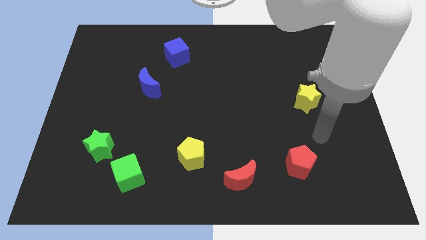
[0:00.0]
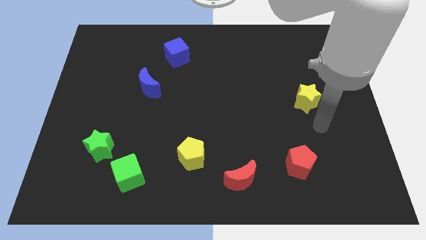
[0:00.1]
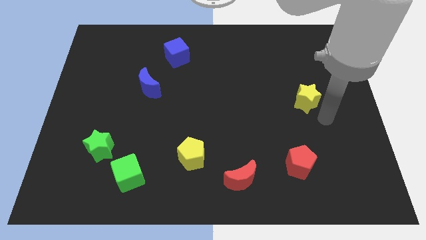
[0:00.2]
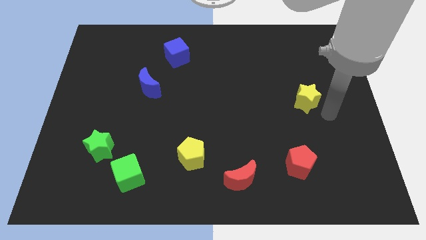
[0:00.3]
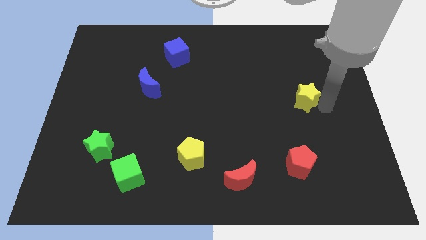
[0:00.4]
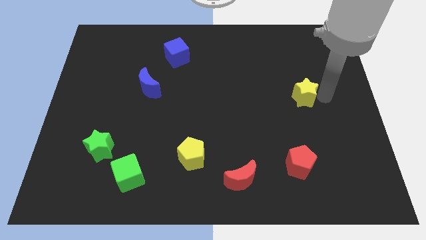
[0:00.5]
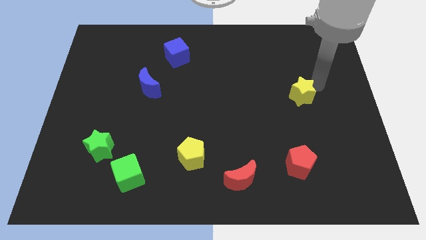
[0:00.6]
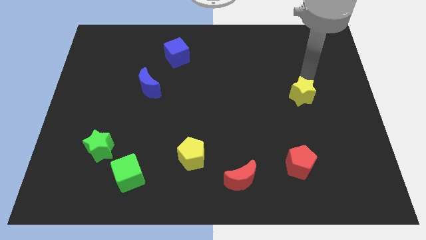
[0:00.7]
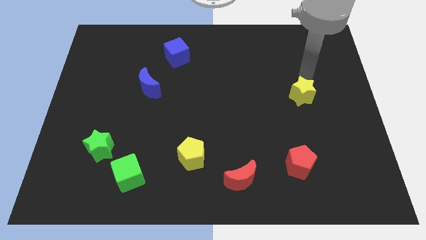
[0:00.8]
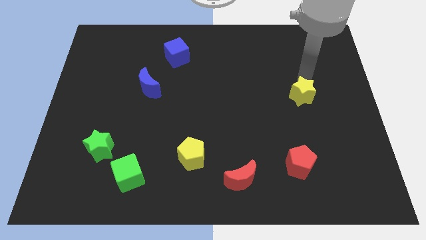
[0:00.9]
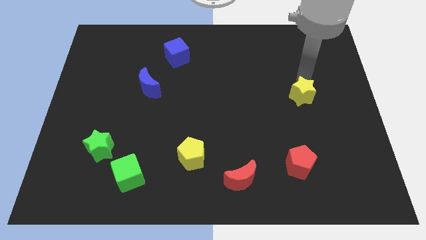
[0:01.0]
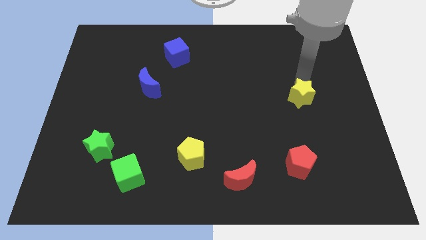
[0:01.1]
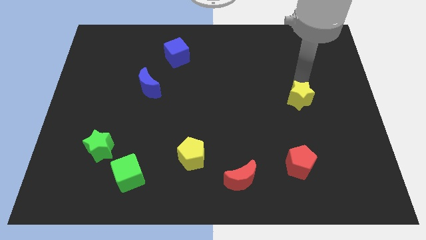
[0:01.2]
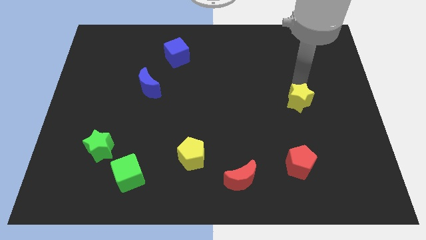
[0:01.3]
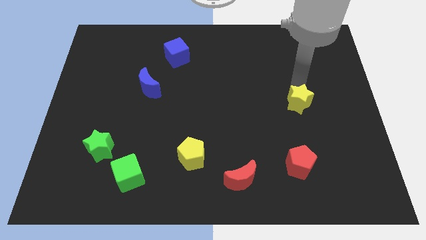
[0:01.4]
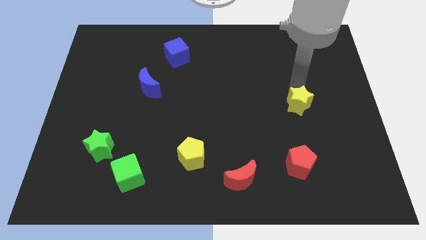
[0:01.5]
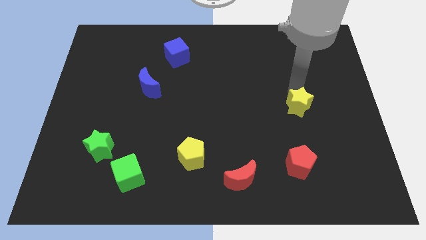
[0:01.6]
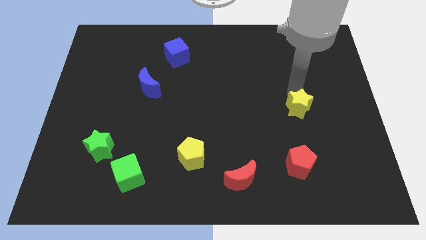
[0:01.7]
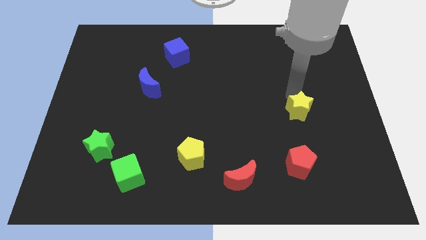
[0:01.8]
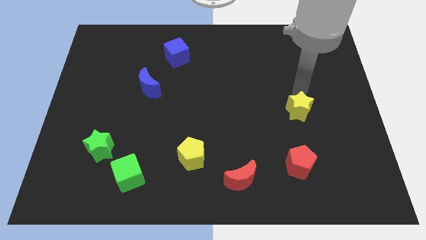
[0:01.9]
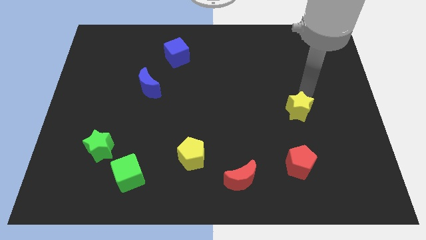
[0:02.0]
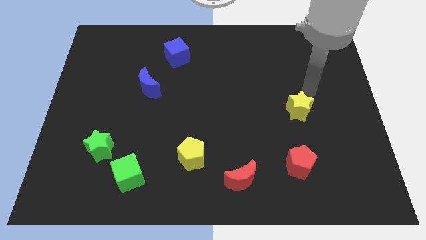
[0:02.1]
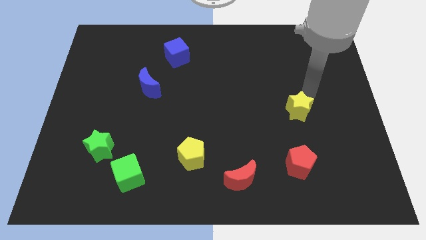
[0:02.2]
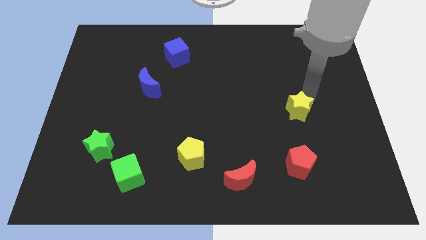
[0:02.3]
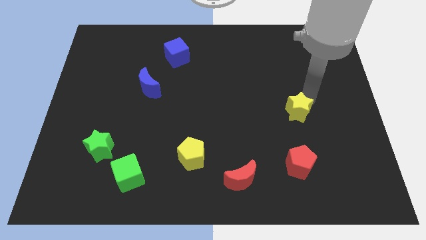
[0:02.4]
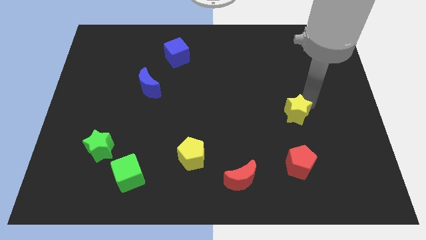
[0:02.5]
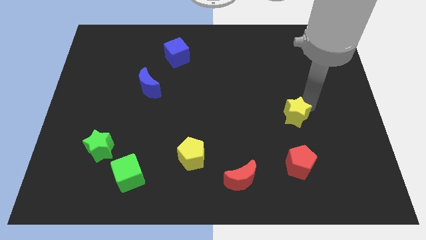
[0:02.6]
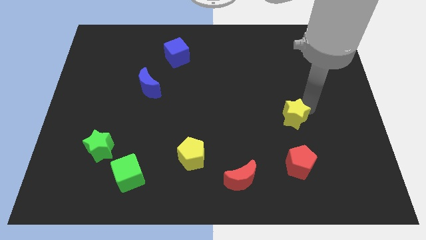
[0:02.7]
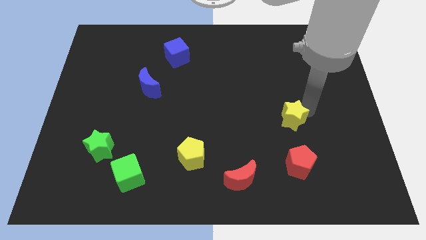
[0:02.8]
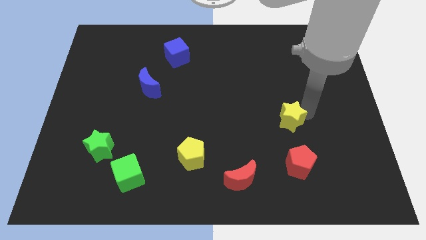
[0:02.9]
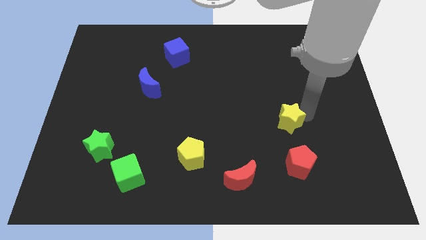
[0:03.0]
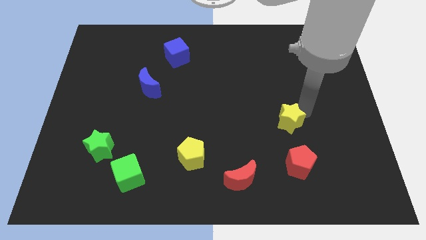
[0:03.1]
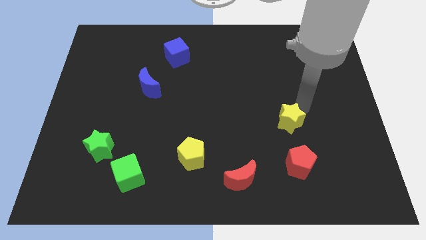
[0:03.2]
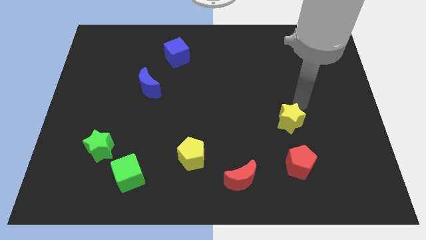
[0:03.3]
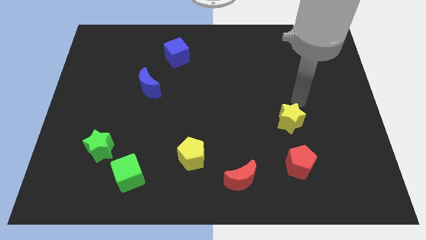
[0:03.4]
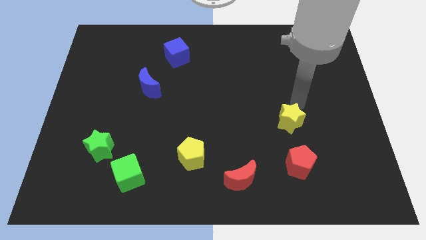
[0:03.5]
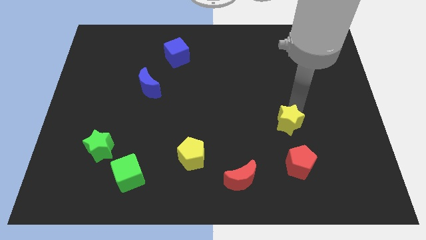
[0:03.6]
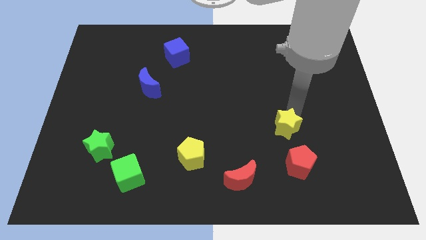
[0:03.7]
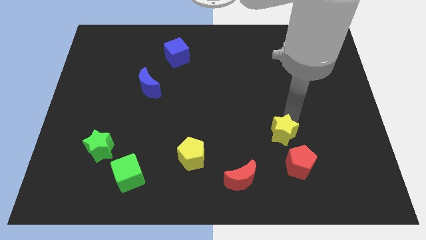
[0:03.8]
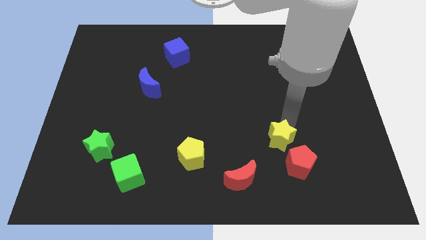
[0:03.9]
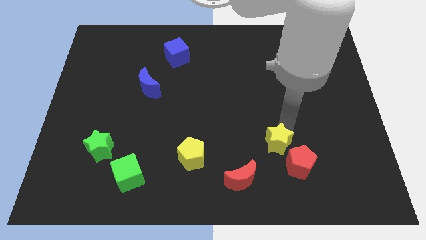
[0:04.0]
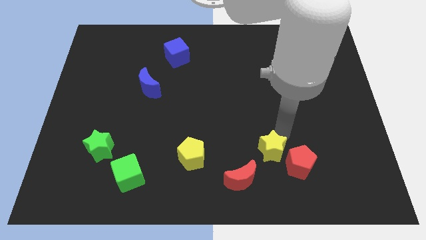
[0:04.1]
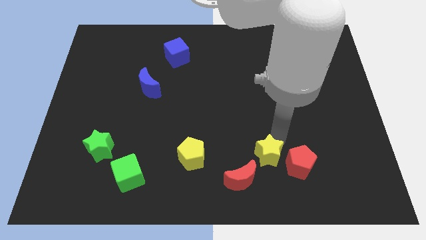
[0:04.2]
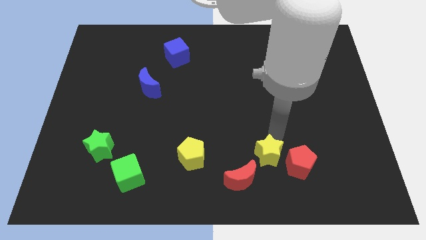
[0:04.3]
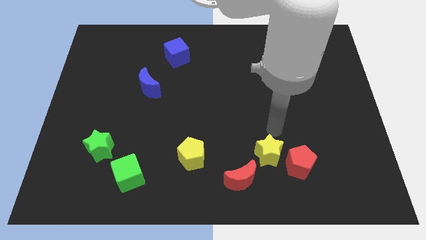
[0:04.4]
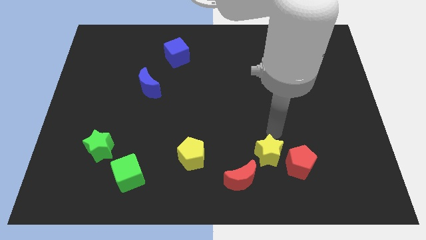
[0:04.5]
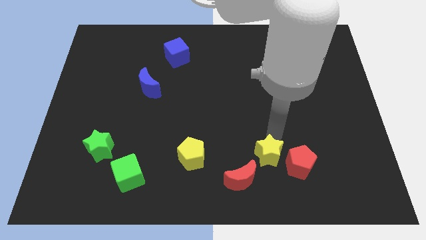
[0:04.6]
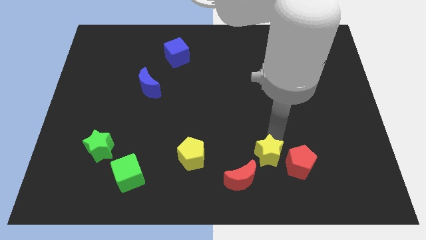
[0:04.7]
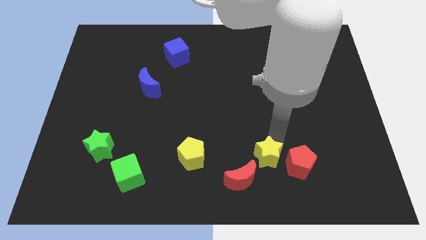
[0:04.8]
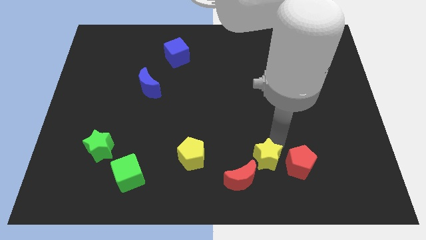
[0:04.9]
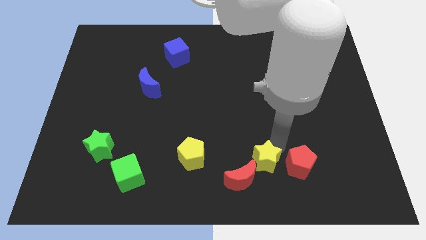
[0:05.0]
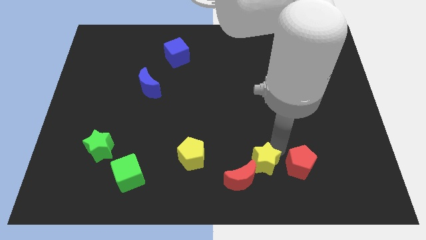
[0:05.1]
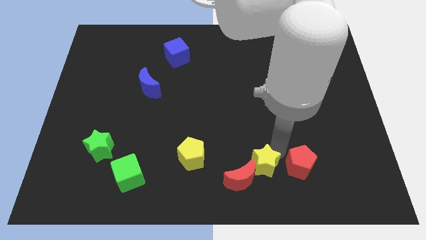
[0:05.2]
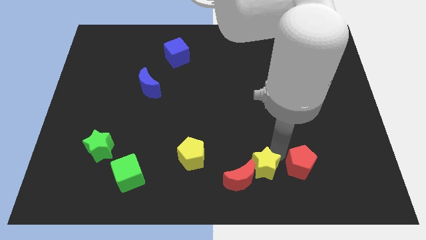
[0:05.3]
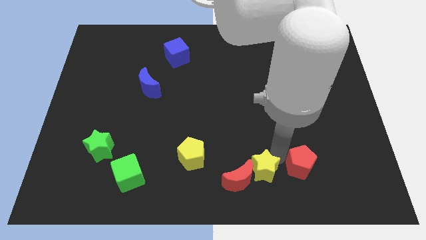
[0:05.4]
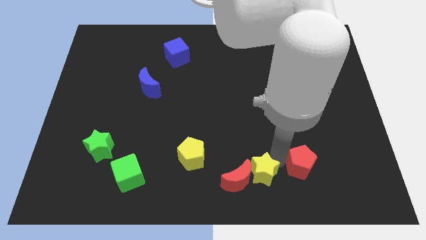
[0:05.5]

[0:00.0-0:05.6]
put the yellow star to the bottom

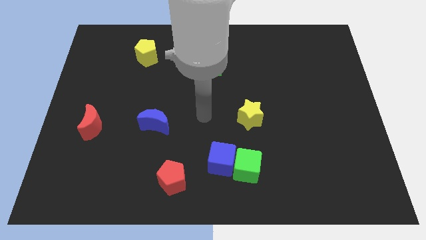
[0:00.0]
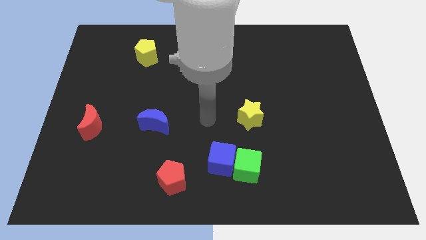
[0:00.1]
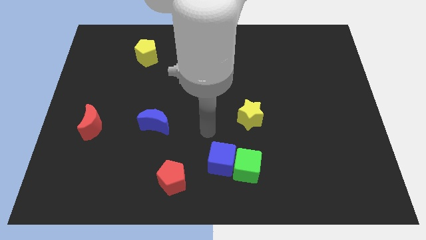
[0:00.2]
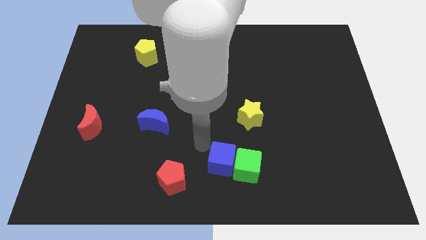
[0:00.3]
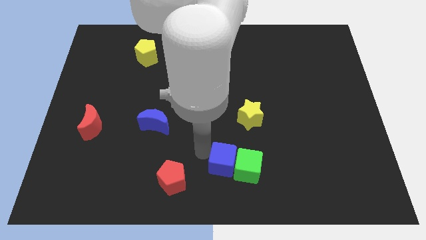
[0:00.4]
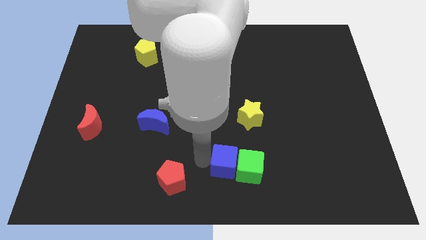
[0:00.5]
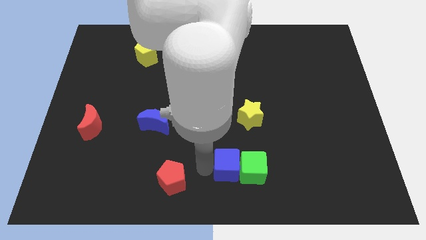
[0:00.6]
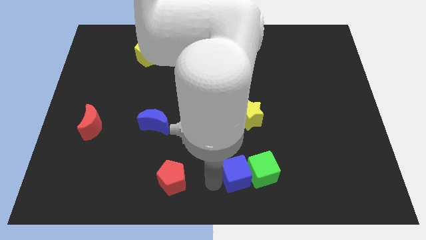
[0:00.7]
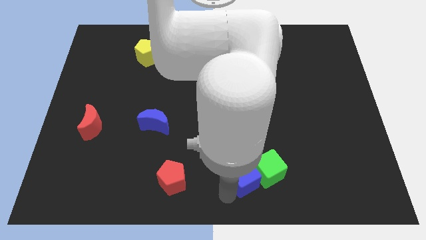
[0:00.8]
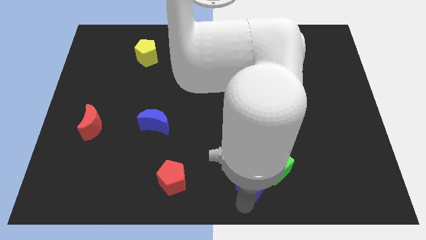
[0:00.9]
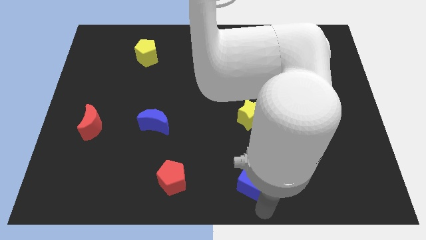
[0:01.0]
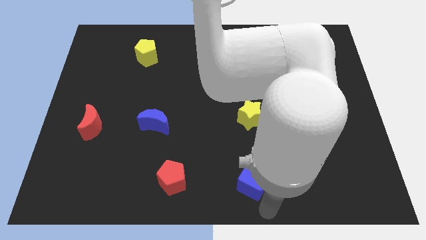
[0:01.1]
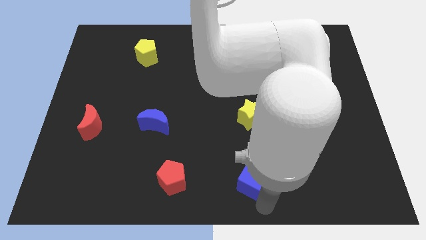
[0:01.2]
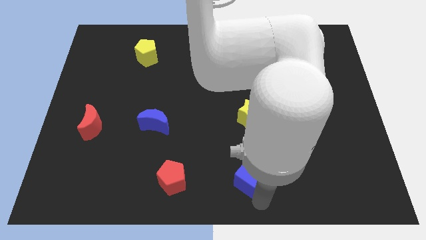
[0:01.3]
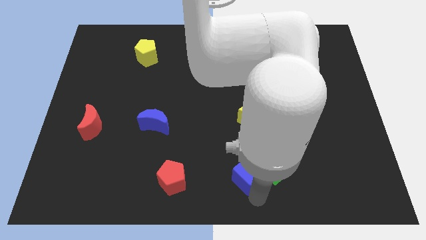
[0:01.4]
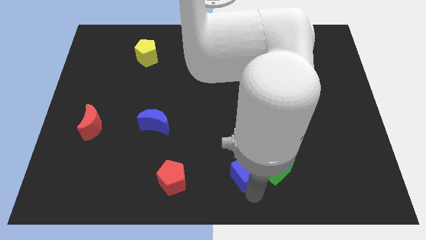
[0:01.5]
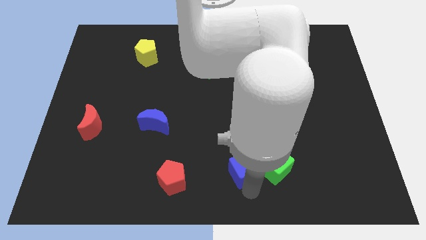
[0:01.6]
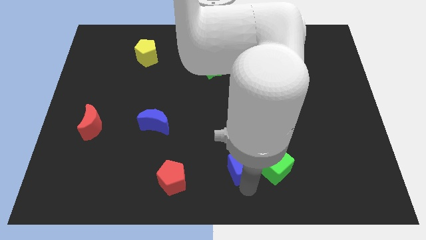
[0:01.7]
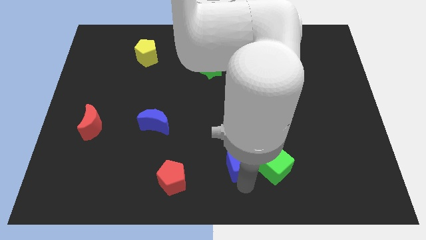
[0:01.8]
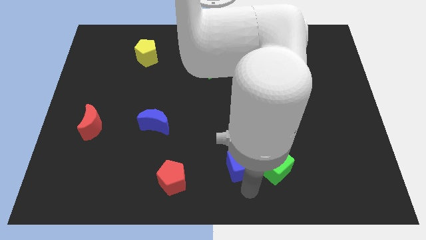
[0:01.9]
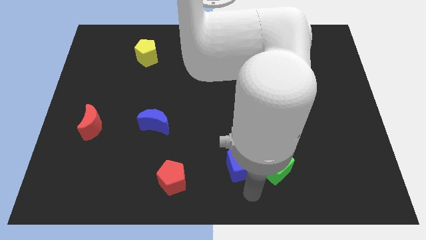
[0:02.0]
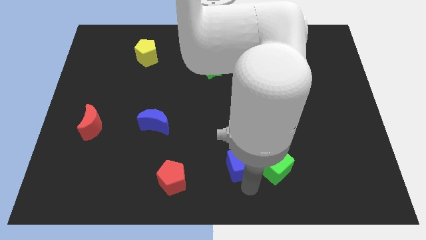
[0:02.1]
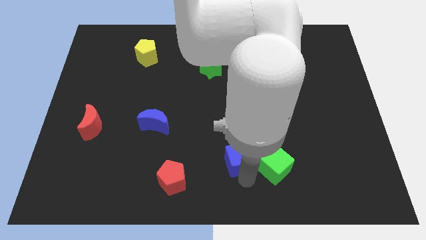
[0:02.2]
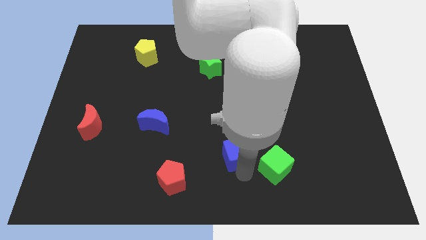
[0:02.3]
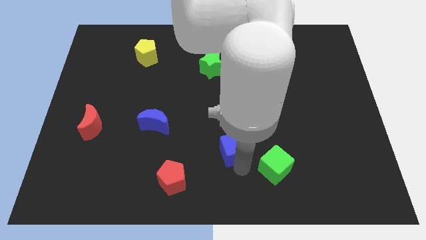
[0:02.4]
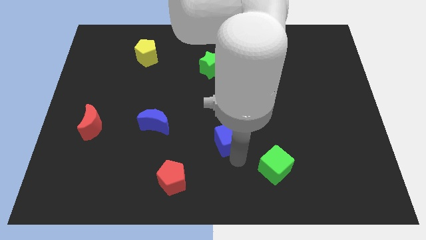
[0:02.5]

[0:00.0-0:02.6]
put the blue cube to the middle of the board
